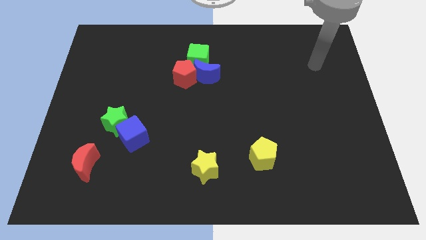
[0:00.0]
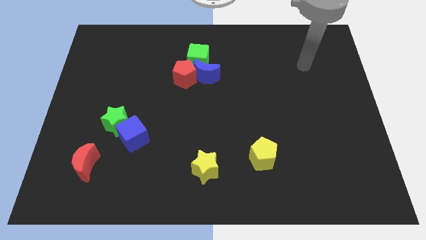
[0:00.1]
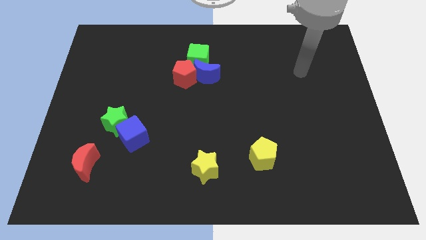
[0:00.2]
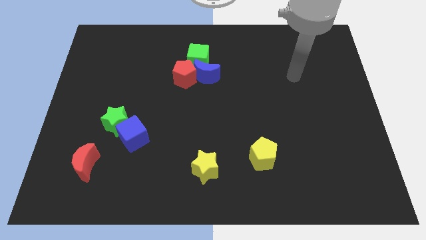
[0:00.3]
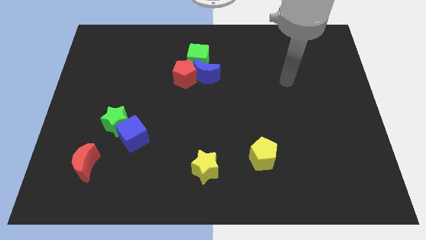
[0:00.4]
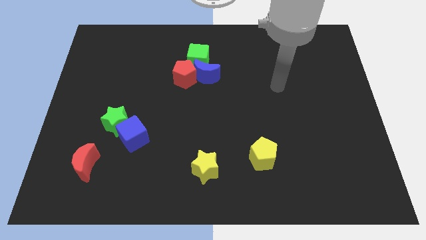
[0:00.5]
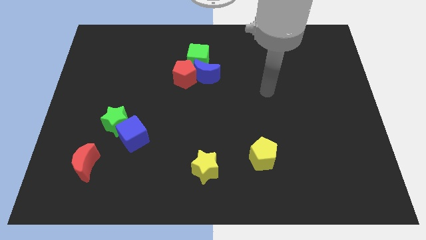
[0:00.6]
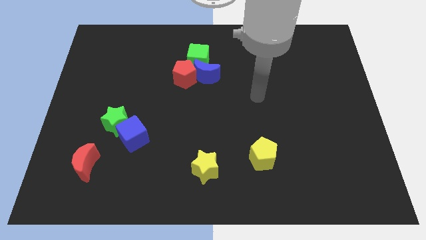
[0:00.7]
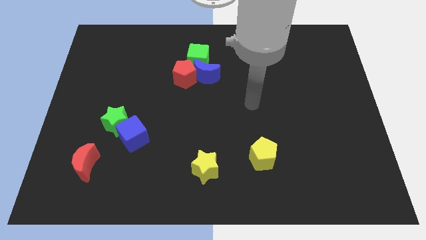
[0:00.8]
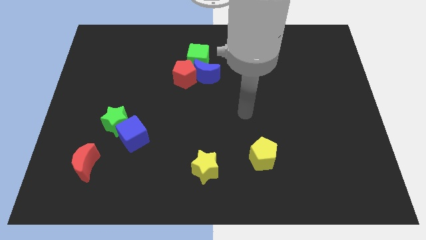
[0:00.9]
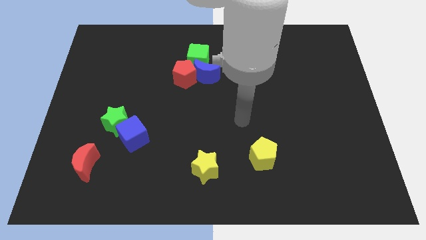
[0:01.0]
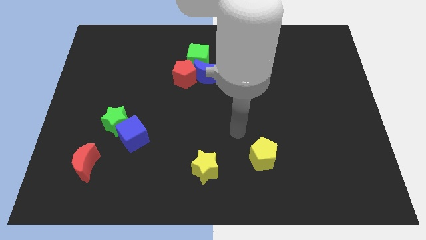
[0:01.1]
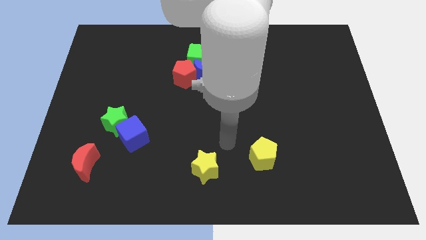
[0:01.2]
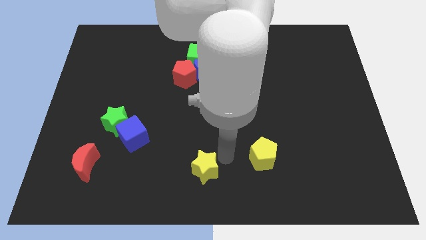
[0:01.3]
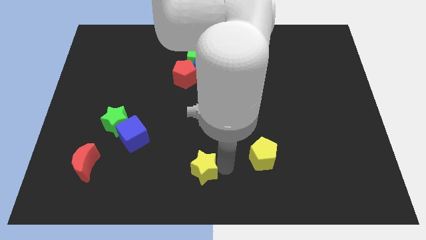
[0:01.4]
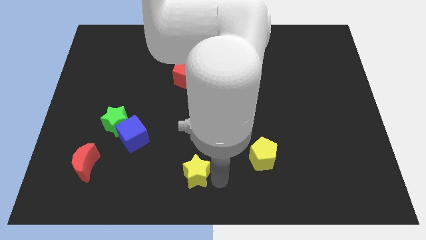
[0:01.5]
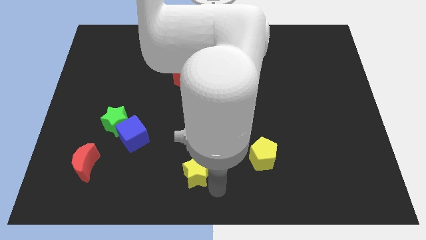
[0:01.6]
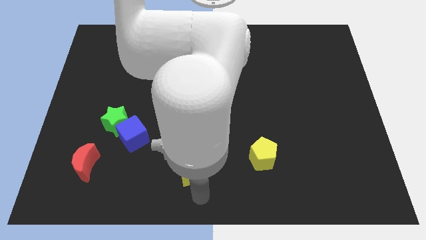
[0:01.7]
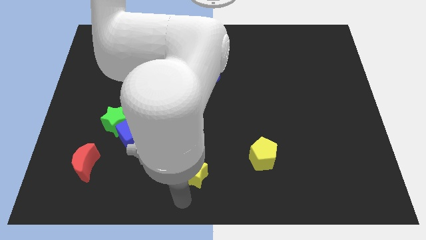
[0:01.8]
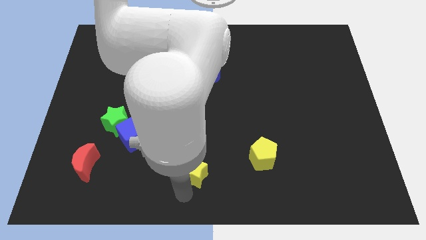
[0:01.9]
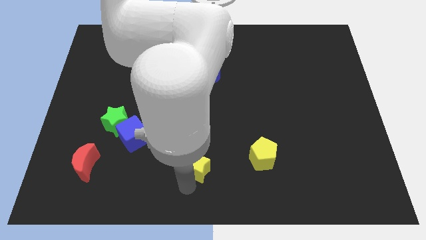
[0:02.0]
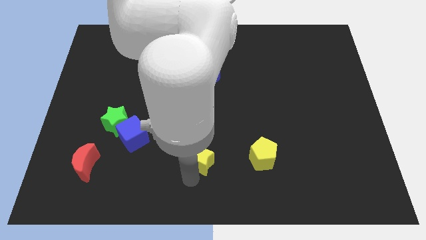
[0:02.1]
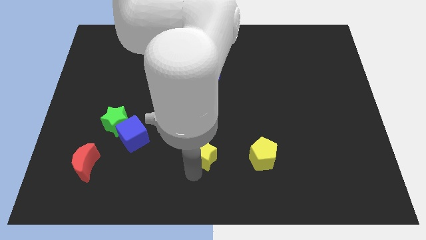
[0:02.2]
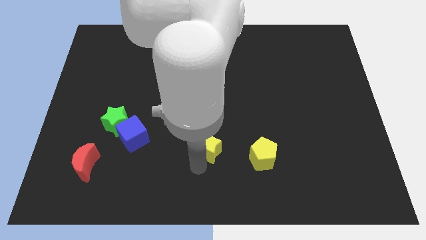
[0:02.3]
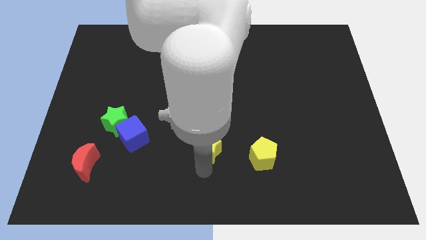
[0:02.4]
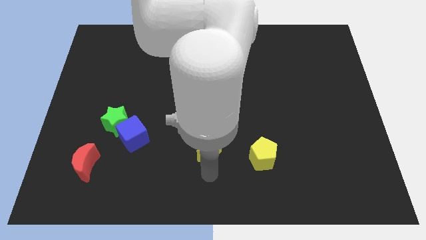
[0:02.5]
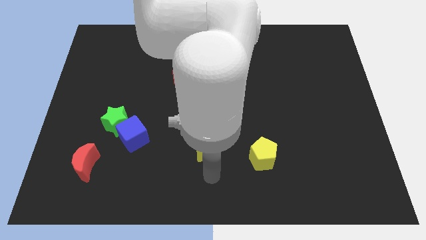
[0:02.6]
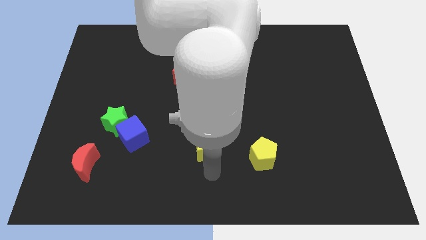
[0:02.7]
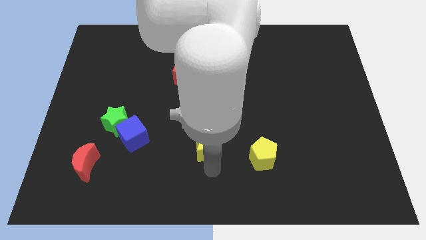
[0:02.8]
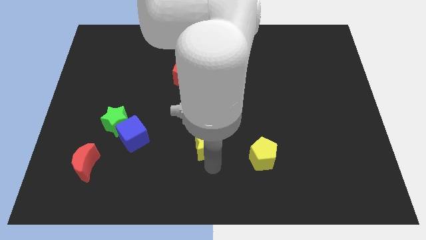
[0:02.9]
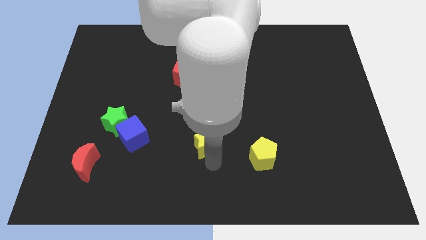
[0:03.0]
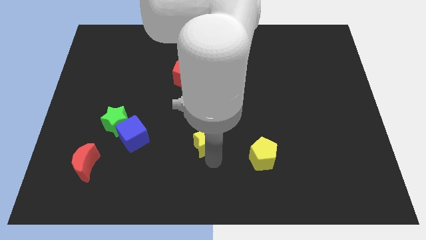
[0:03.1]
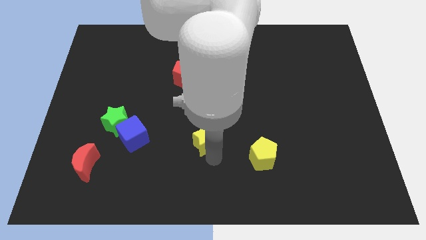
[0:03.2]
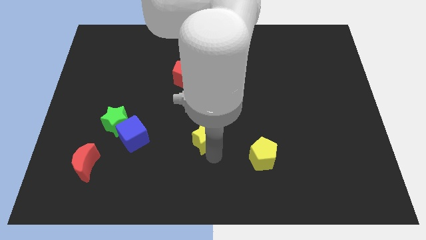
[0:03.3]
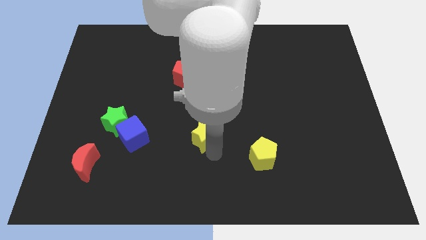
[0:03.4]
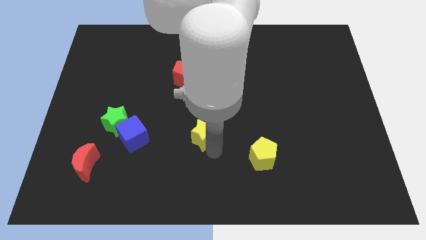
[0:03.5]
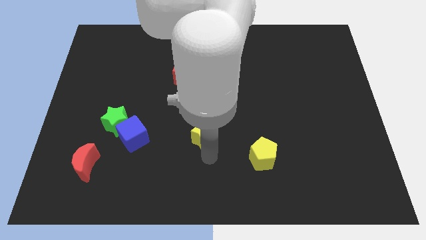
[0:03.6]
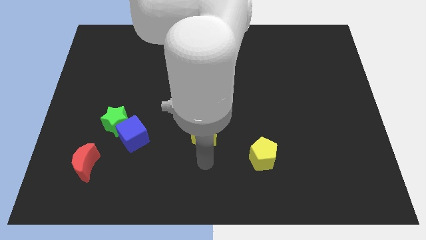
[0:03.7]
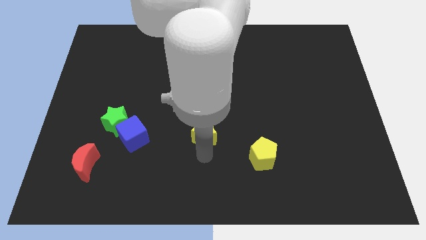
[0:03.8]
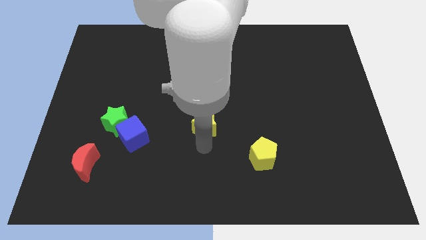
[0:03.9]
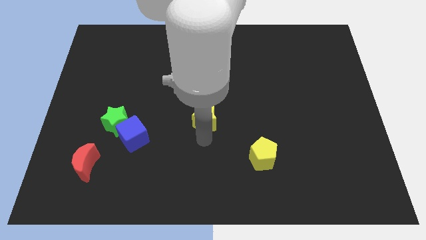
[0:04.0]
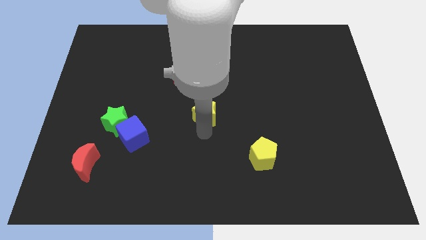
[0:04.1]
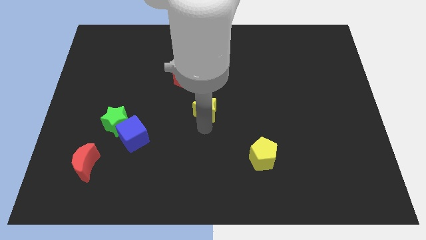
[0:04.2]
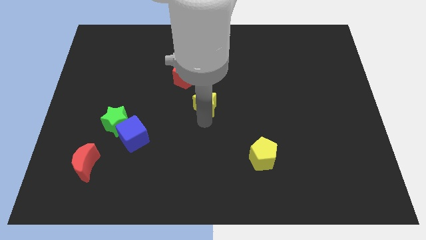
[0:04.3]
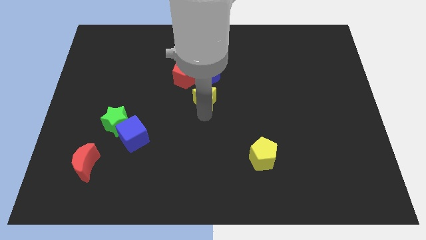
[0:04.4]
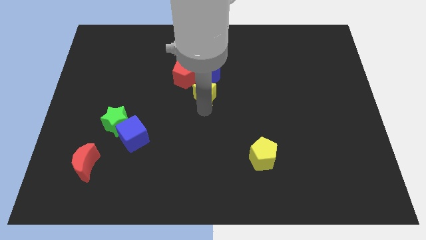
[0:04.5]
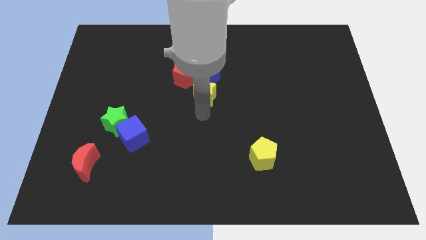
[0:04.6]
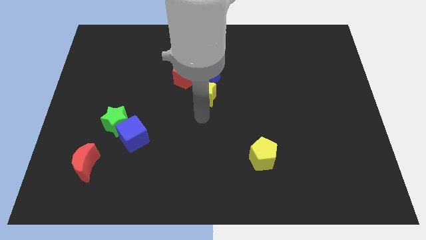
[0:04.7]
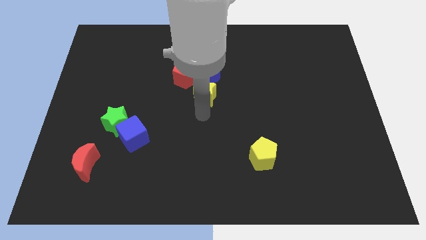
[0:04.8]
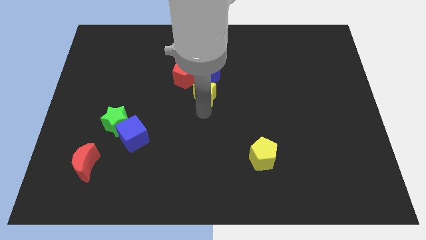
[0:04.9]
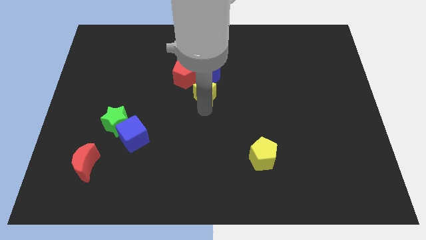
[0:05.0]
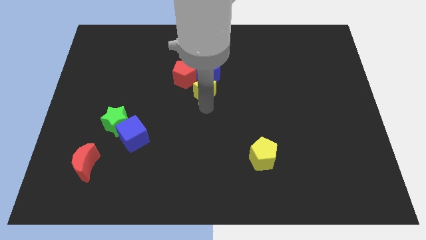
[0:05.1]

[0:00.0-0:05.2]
move the yellow star towards the blue moon

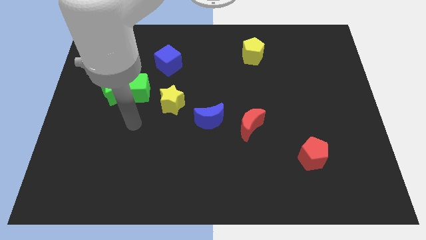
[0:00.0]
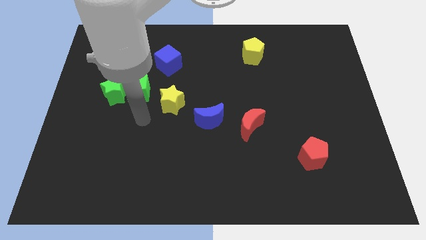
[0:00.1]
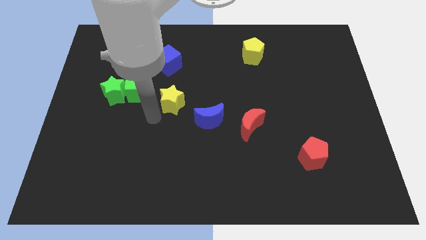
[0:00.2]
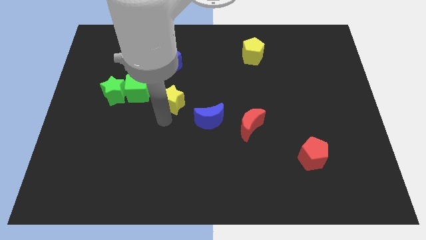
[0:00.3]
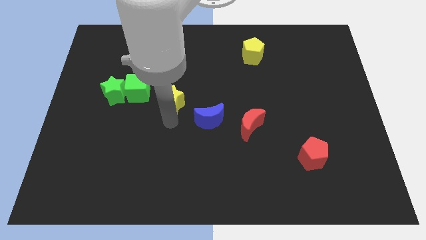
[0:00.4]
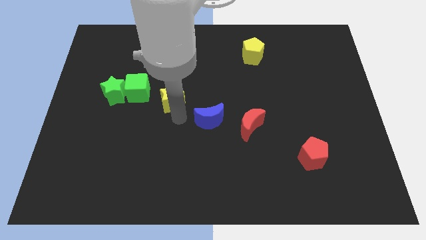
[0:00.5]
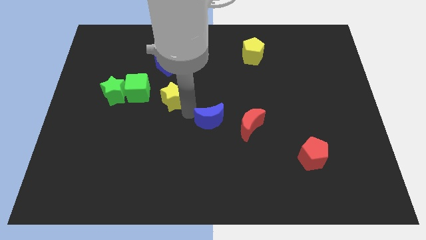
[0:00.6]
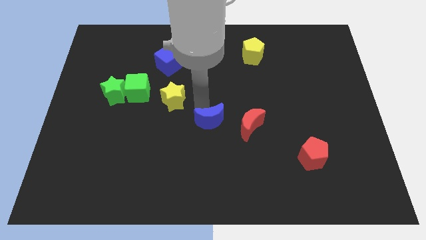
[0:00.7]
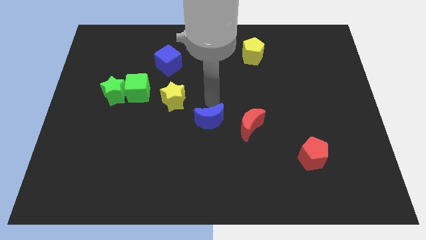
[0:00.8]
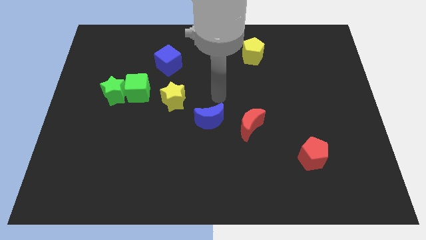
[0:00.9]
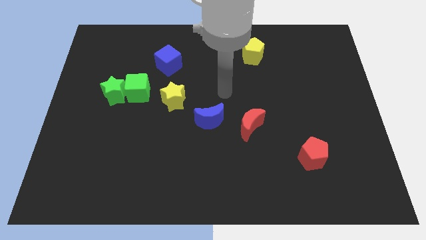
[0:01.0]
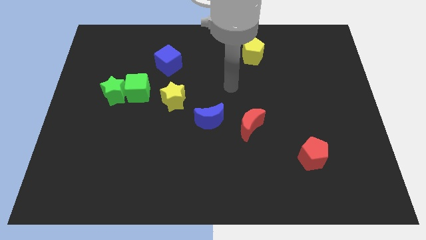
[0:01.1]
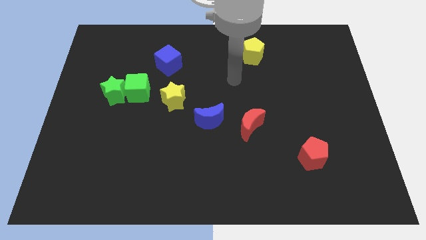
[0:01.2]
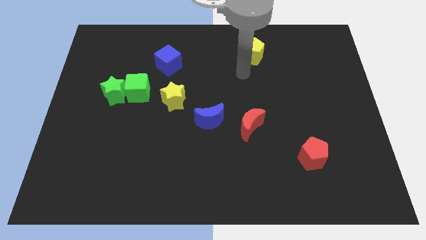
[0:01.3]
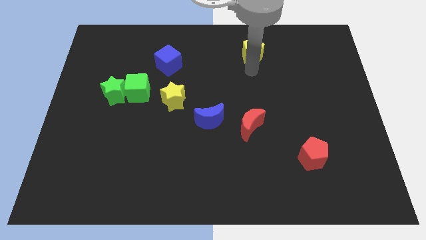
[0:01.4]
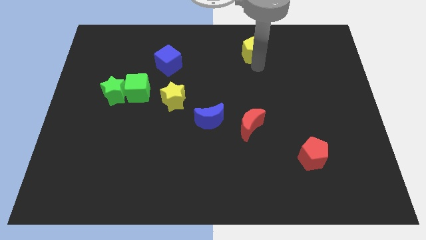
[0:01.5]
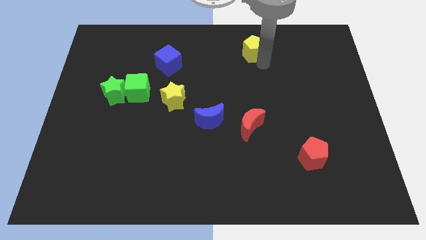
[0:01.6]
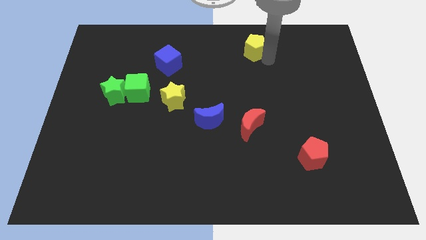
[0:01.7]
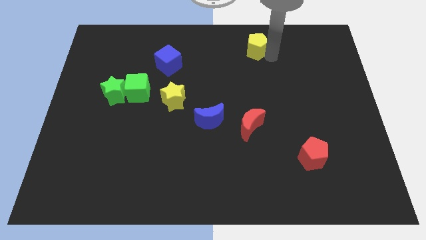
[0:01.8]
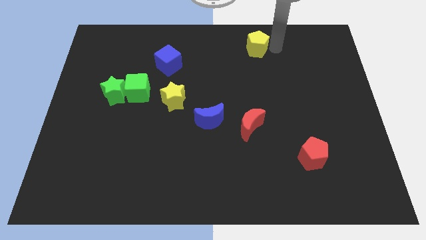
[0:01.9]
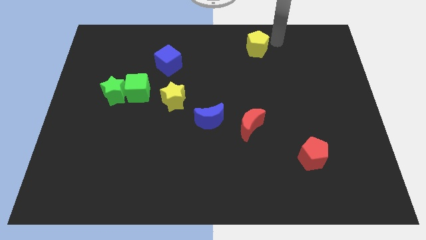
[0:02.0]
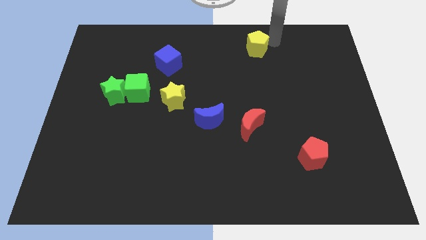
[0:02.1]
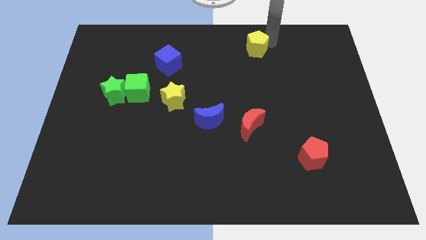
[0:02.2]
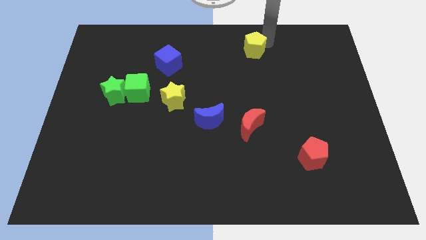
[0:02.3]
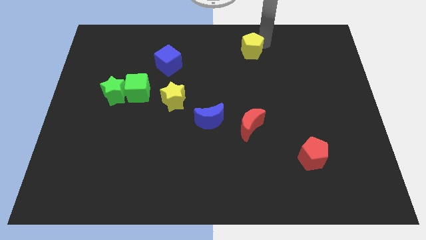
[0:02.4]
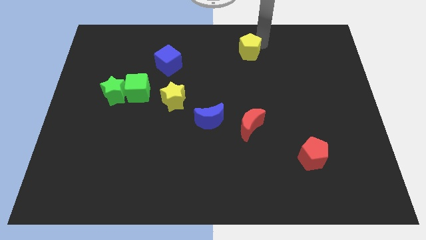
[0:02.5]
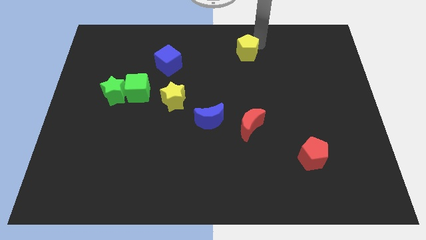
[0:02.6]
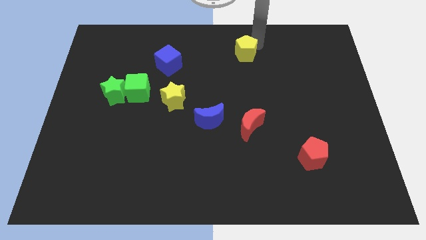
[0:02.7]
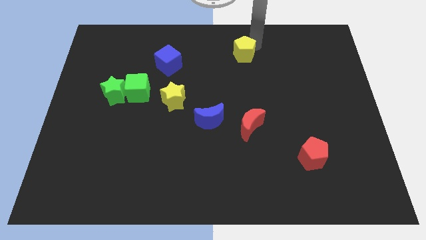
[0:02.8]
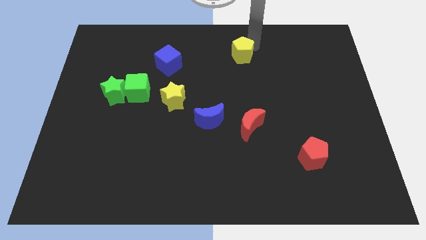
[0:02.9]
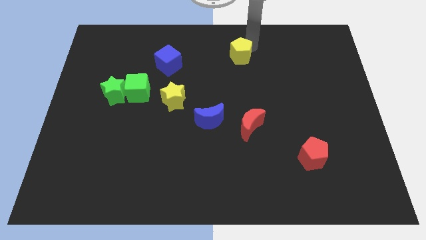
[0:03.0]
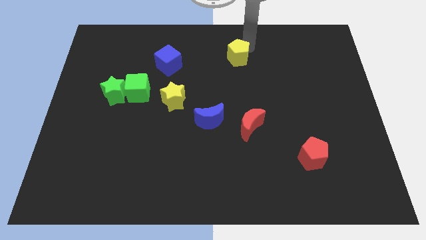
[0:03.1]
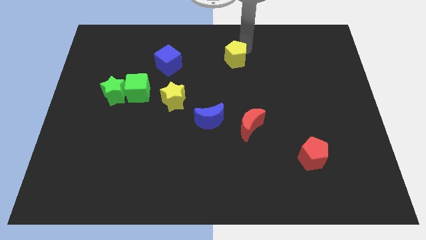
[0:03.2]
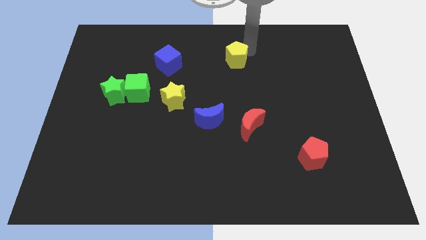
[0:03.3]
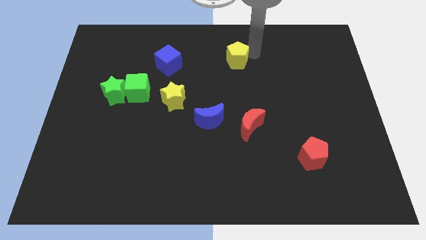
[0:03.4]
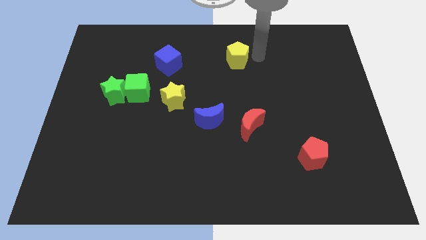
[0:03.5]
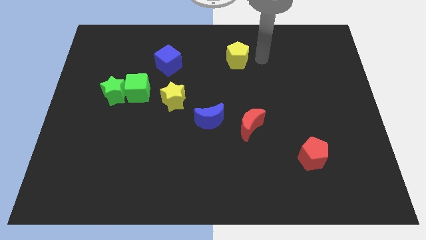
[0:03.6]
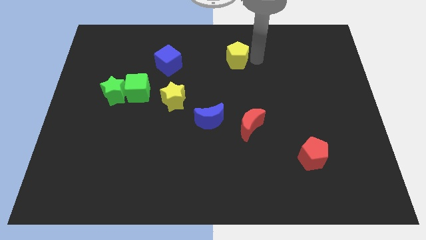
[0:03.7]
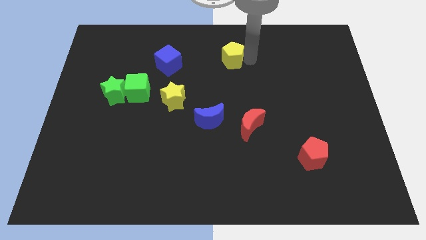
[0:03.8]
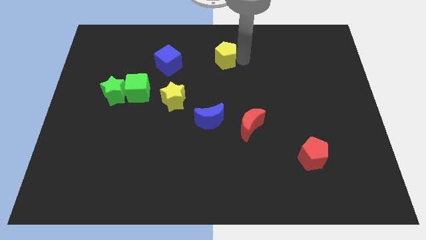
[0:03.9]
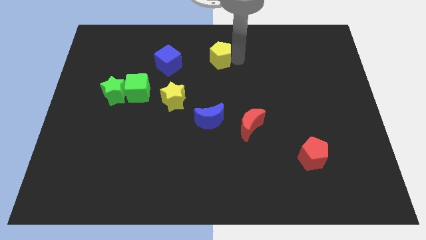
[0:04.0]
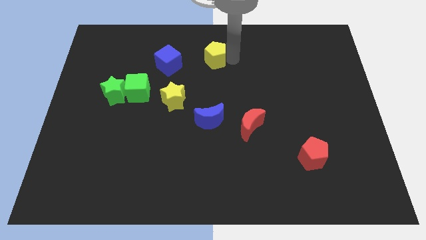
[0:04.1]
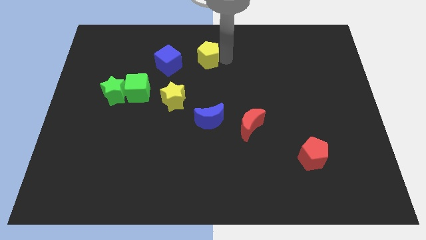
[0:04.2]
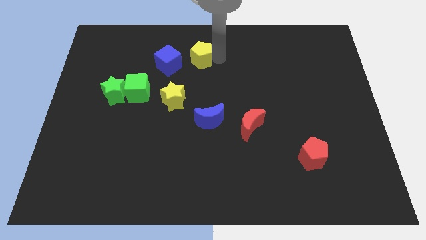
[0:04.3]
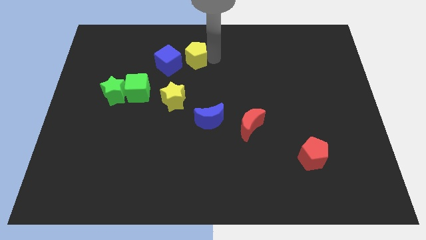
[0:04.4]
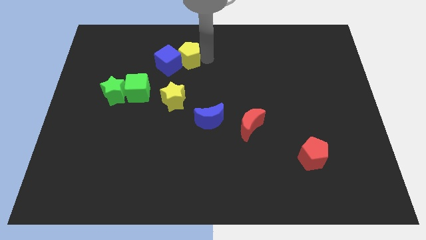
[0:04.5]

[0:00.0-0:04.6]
put the yellow pentagon next to the blue cube
